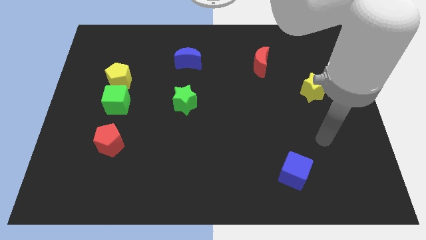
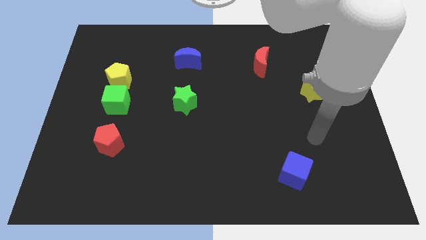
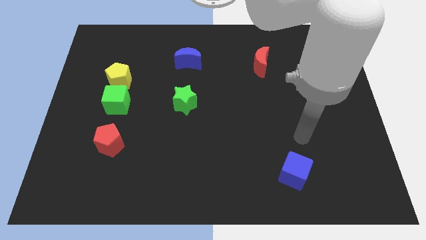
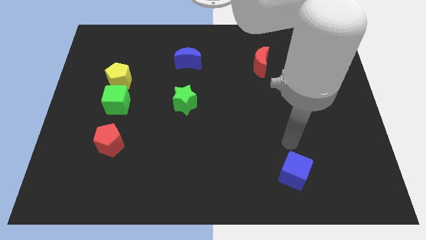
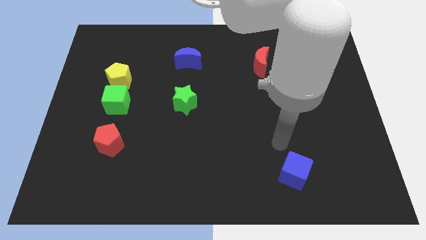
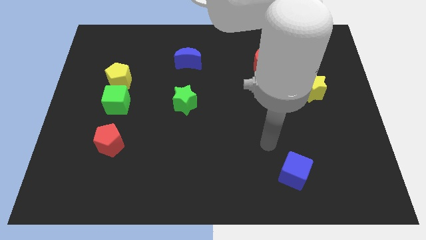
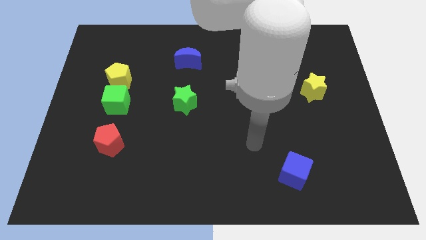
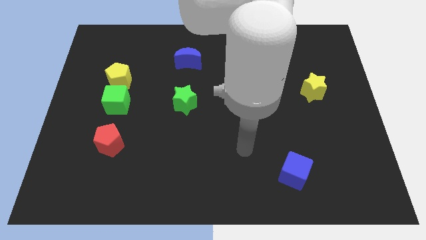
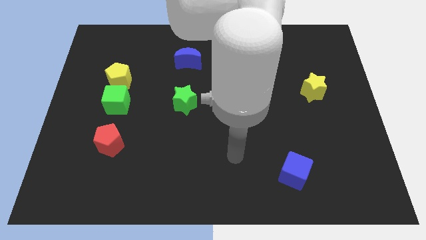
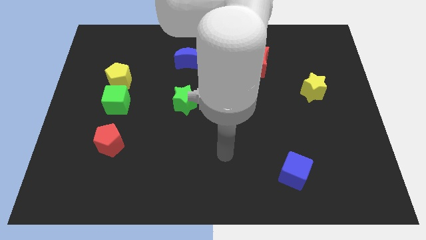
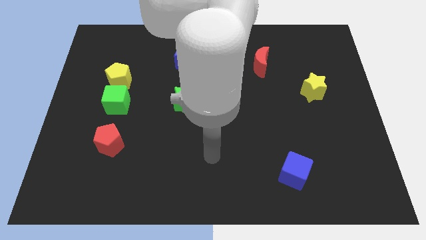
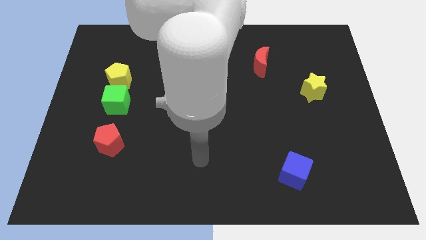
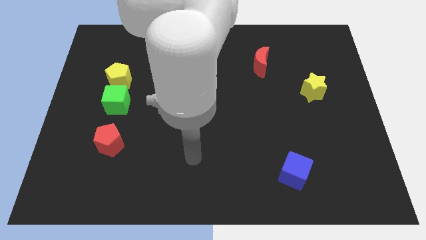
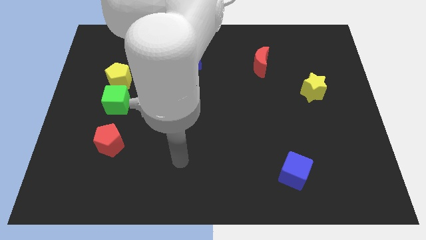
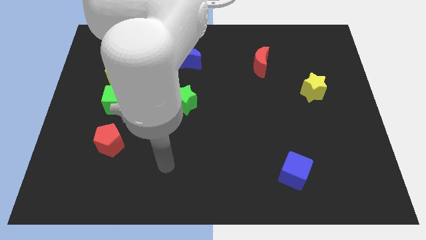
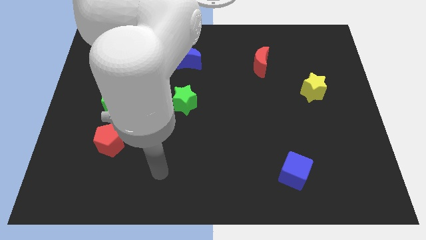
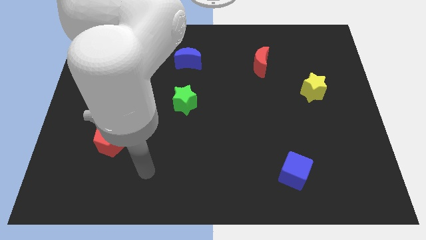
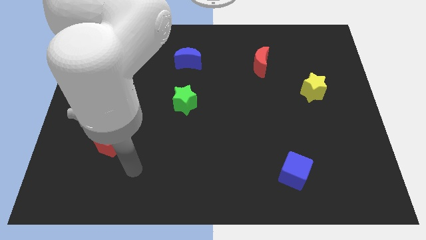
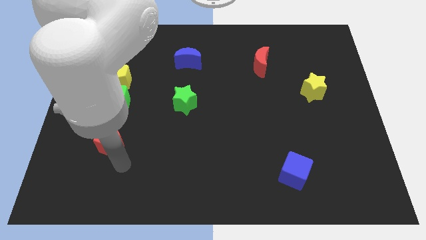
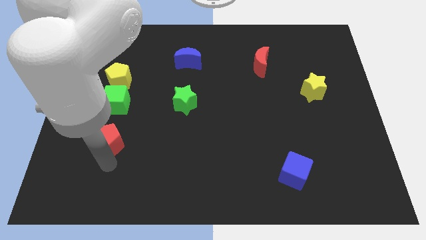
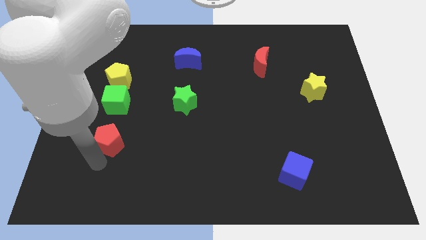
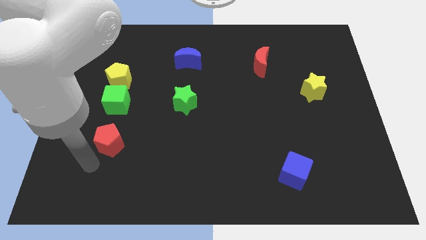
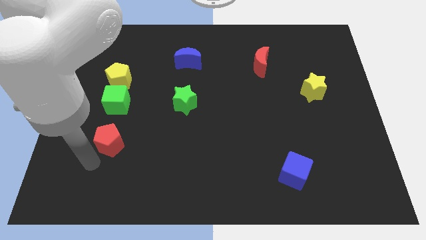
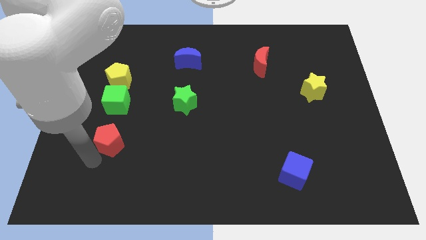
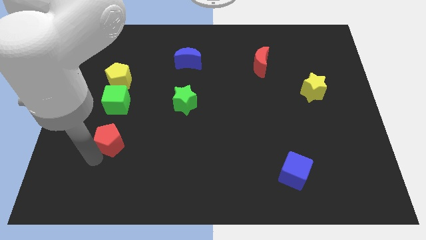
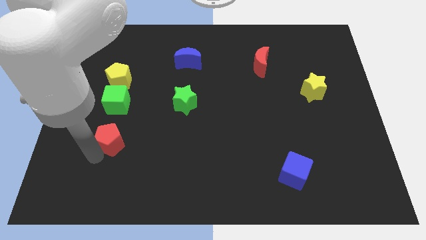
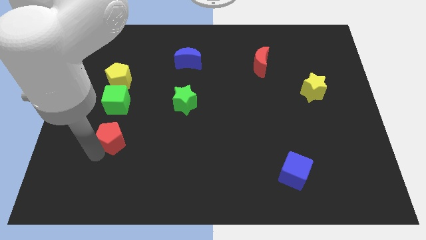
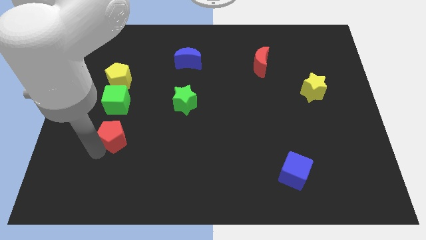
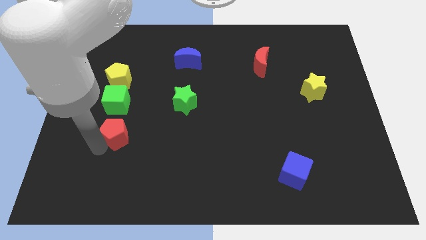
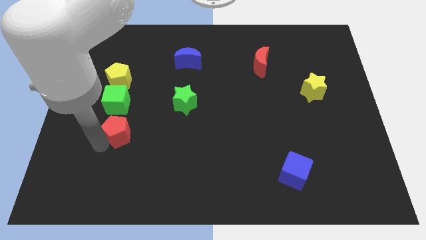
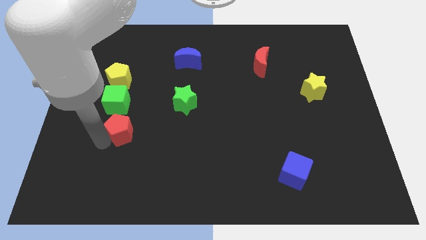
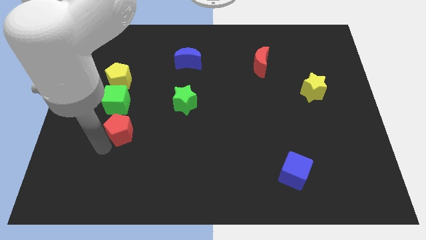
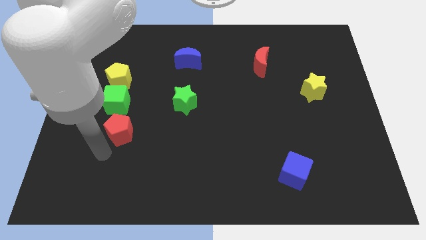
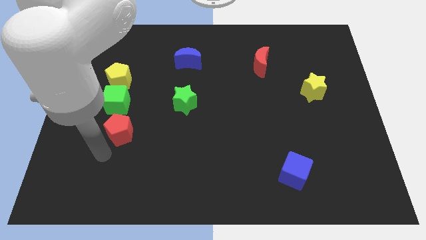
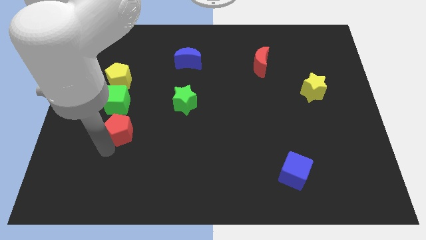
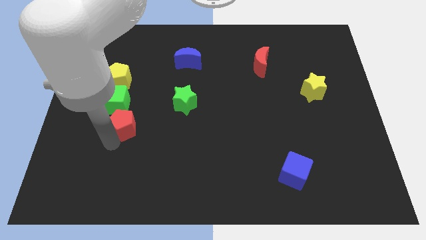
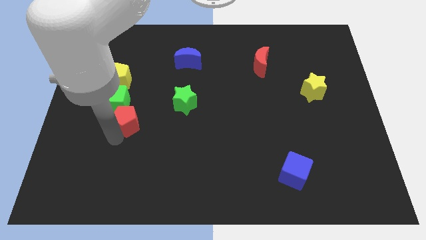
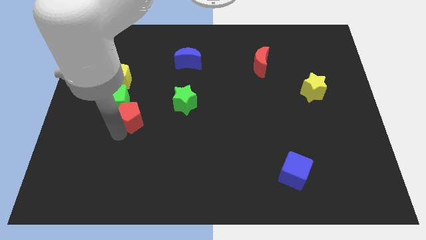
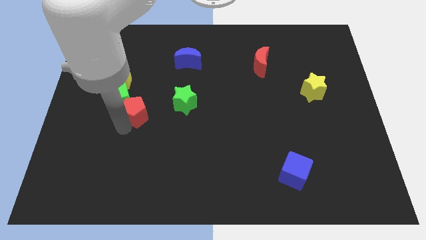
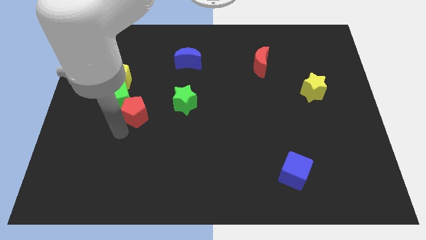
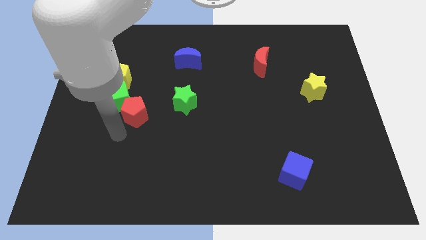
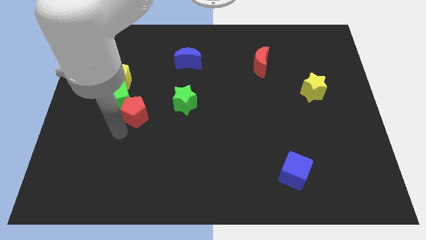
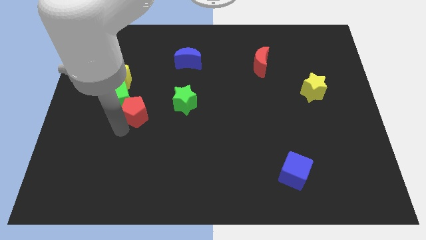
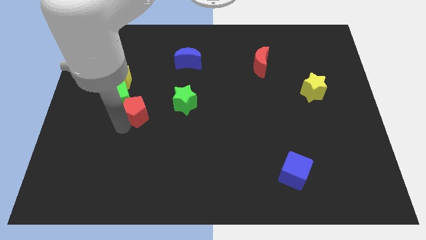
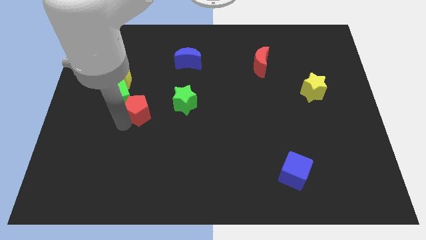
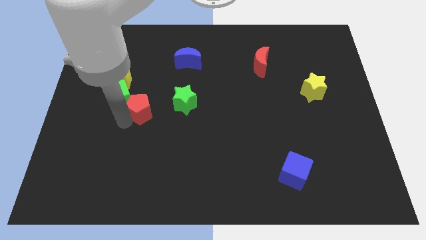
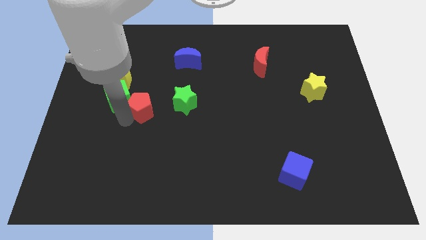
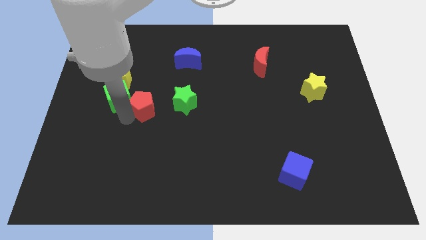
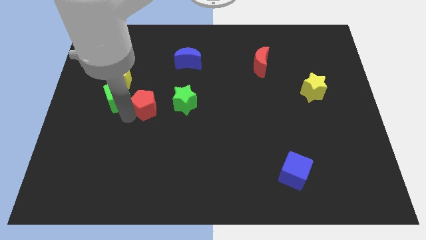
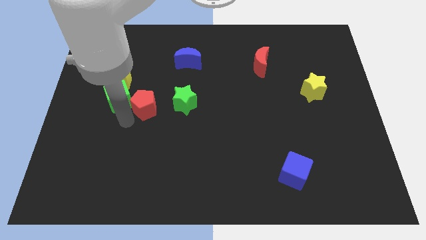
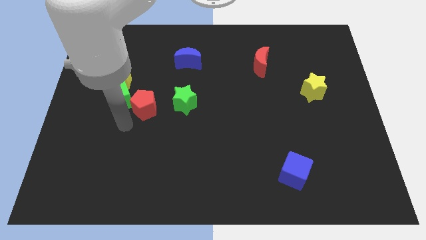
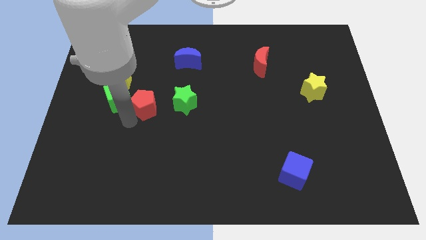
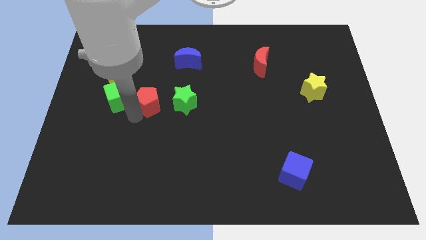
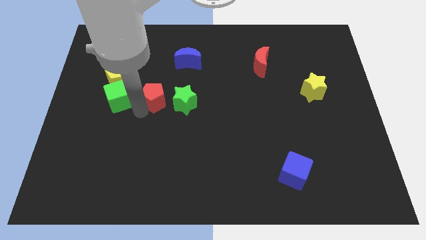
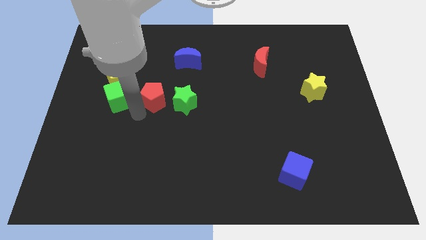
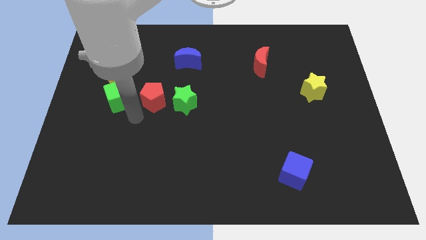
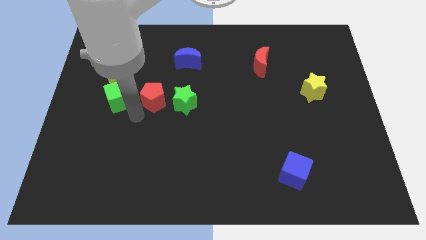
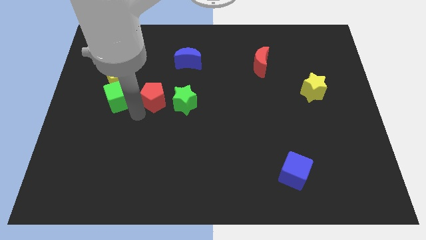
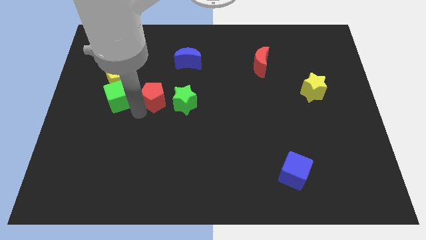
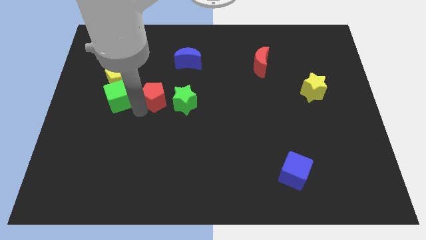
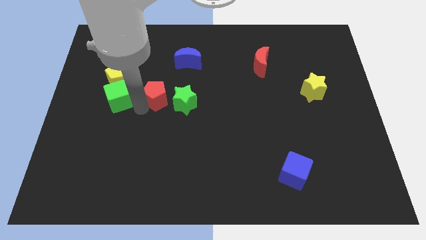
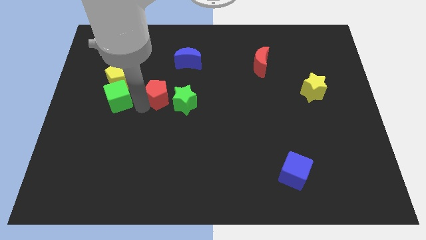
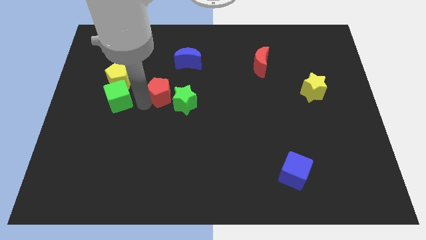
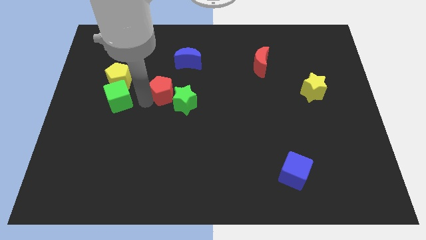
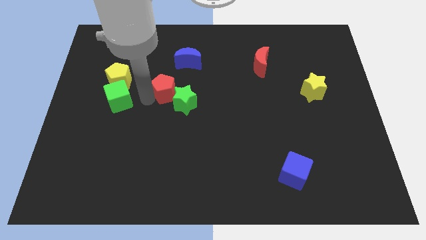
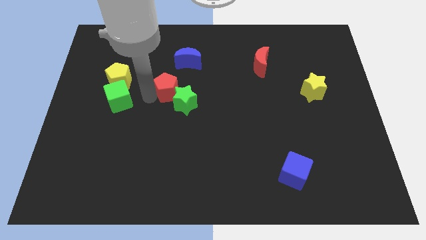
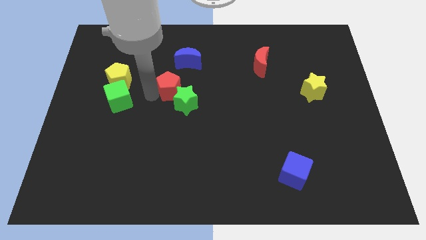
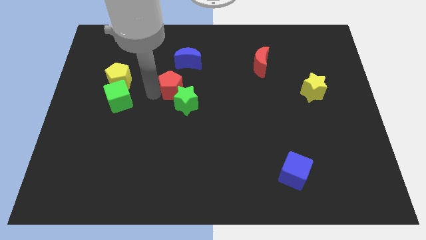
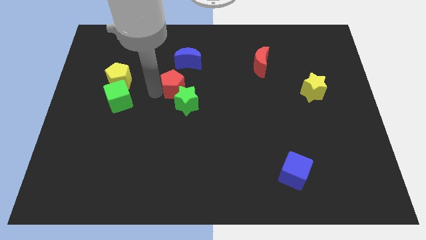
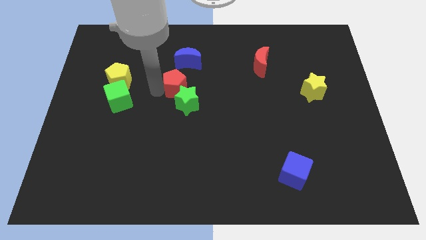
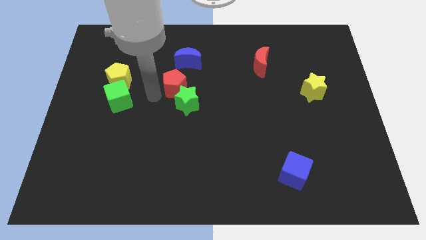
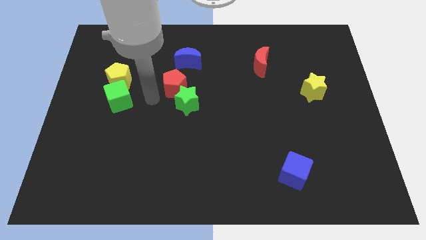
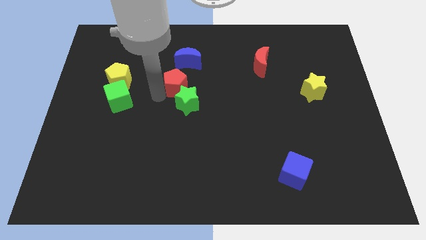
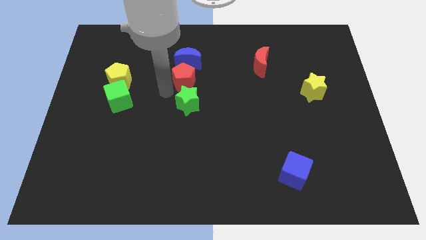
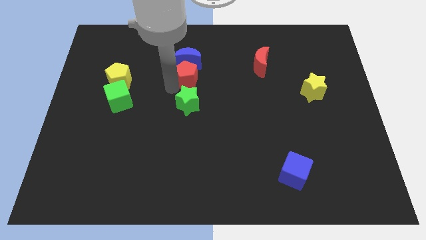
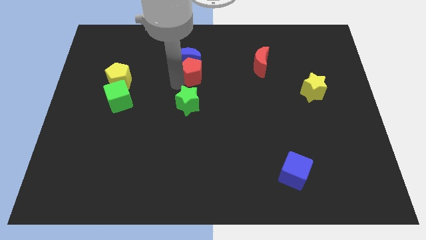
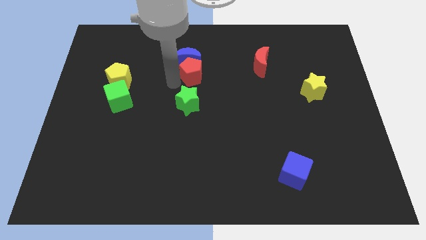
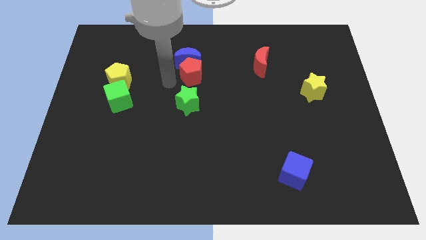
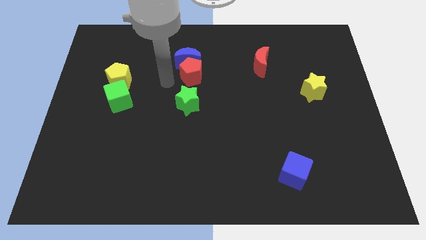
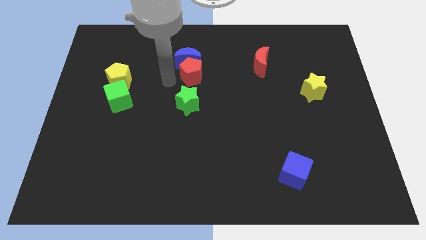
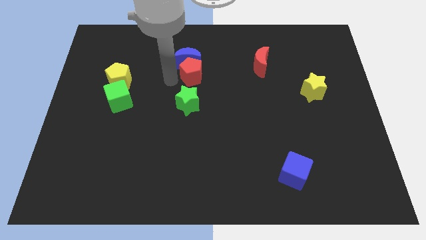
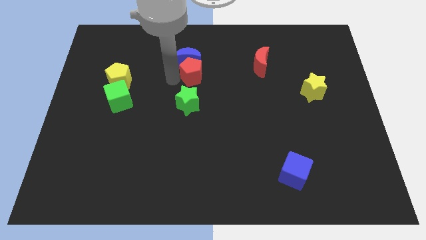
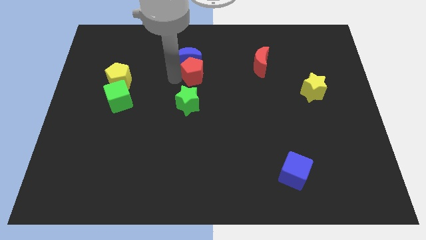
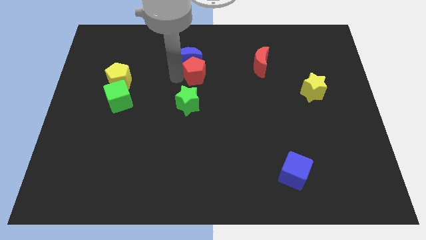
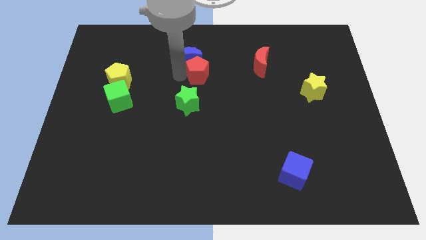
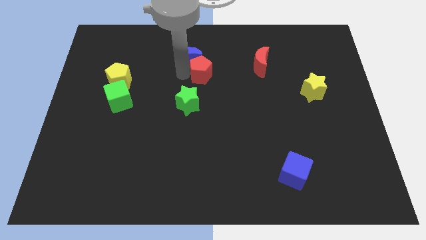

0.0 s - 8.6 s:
move the red pentagon to the right side of the blue moon
